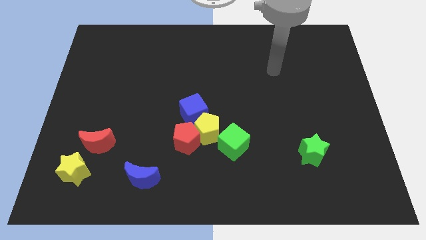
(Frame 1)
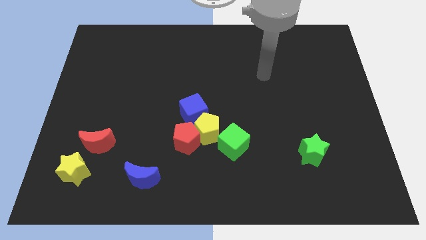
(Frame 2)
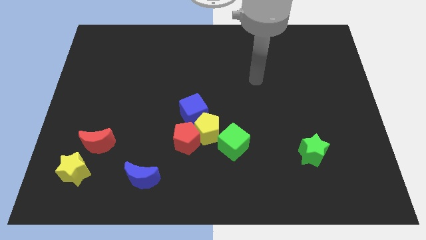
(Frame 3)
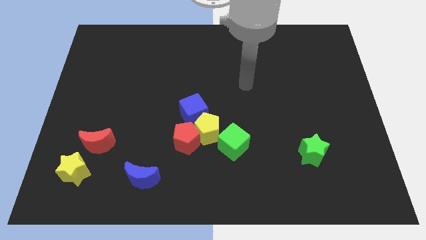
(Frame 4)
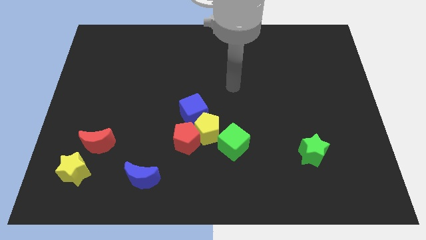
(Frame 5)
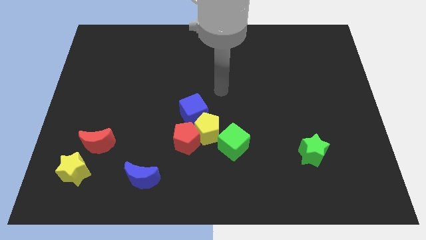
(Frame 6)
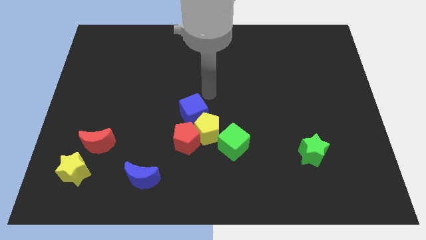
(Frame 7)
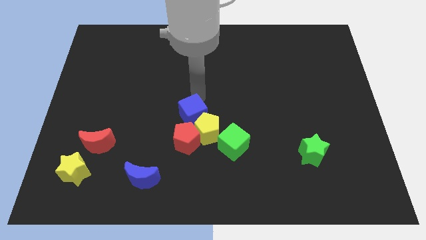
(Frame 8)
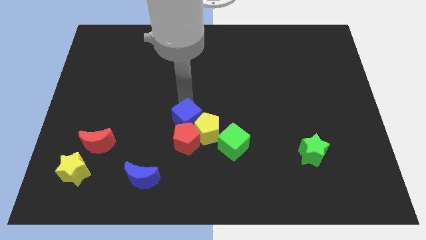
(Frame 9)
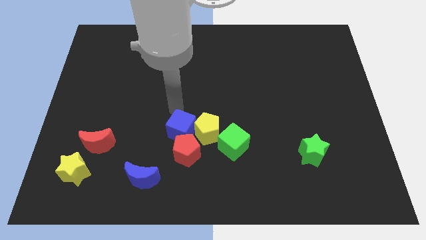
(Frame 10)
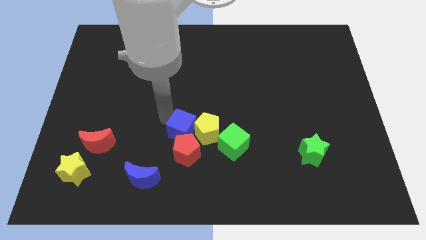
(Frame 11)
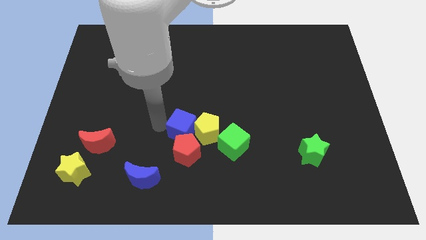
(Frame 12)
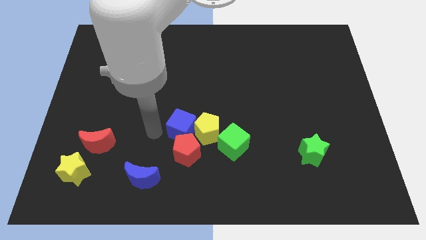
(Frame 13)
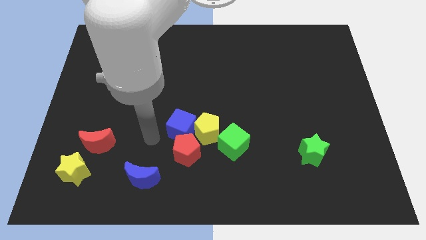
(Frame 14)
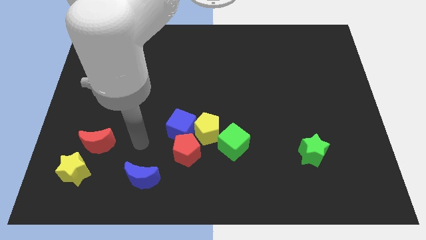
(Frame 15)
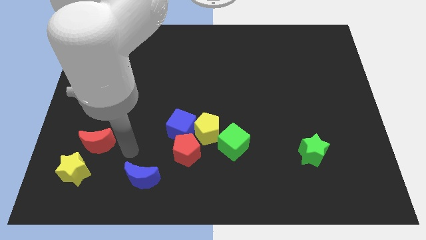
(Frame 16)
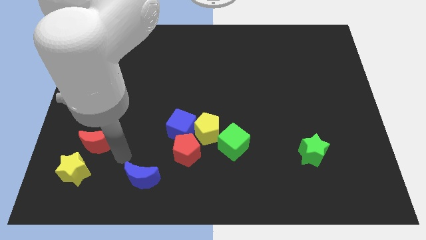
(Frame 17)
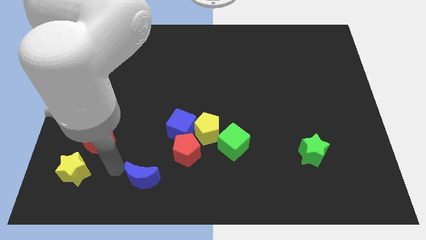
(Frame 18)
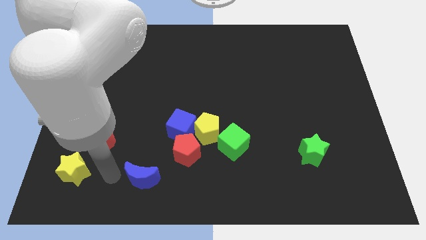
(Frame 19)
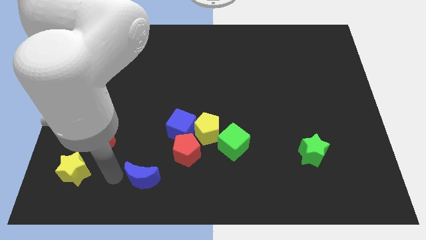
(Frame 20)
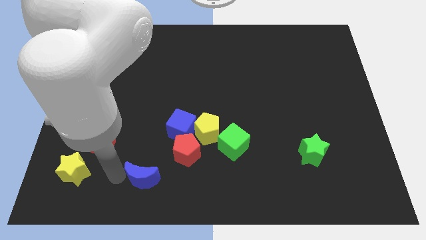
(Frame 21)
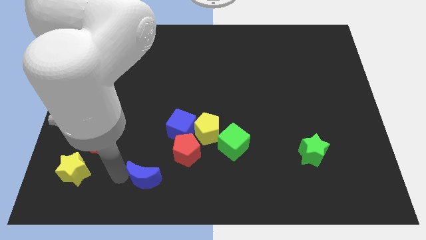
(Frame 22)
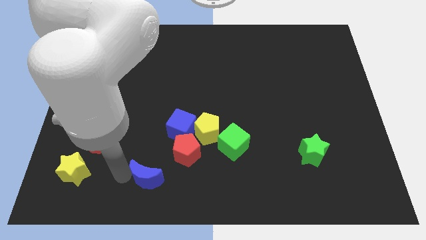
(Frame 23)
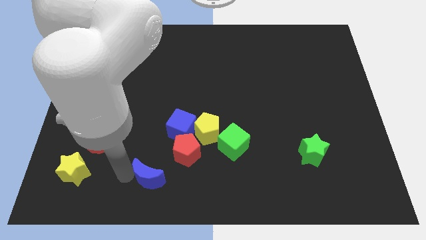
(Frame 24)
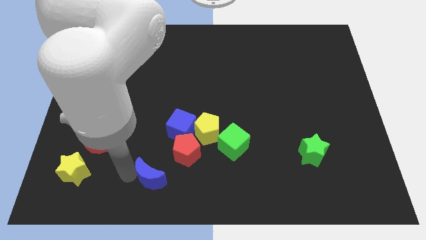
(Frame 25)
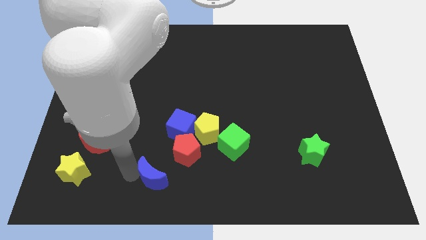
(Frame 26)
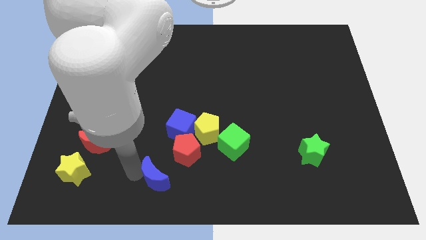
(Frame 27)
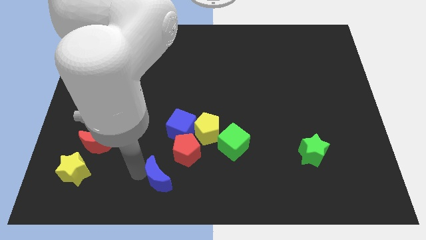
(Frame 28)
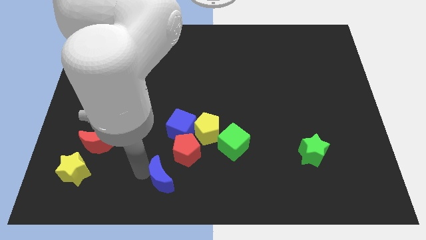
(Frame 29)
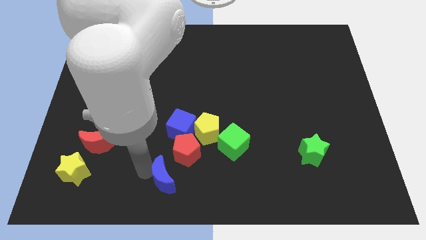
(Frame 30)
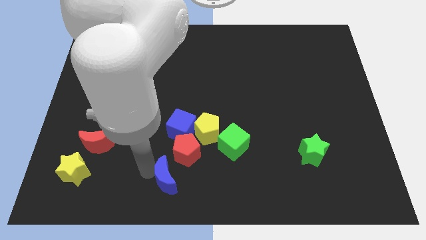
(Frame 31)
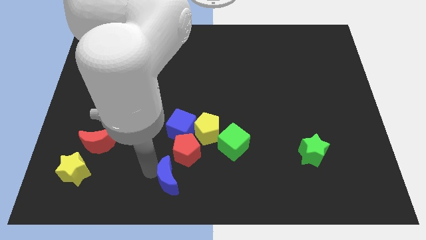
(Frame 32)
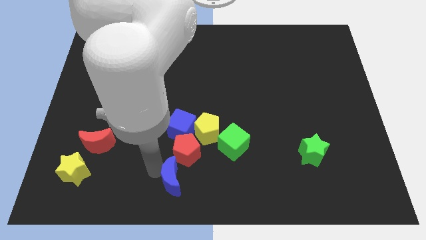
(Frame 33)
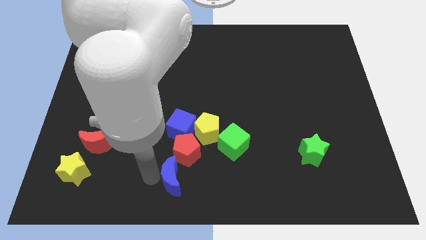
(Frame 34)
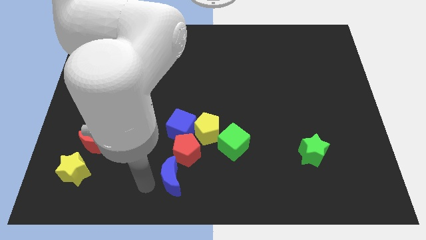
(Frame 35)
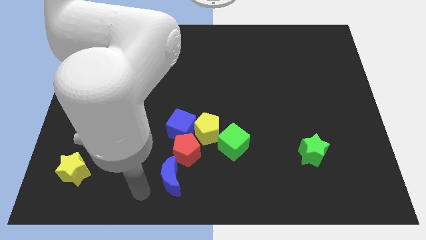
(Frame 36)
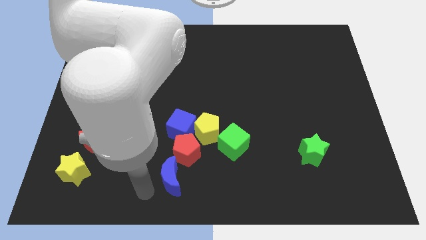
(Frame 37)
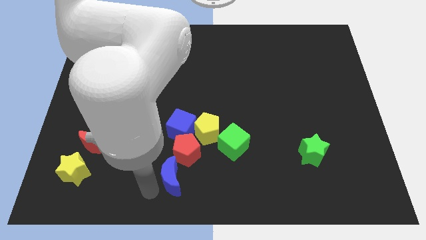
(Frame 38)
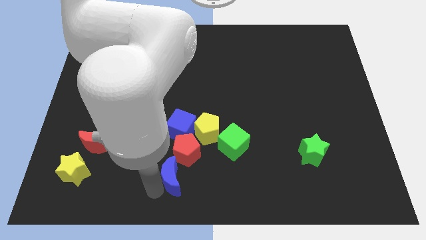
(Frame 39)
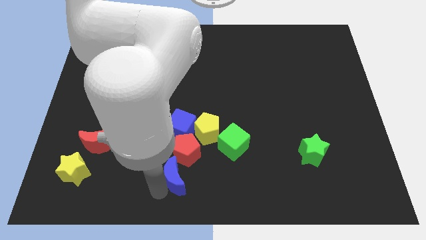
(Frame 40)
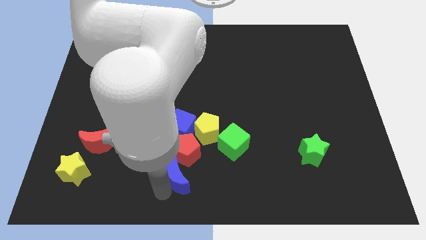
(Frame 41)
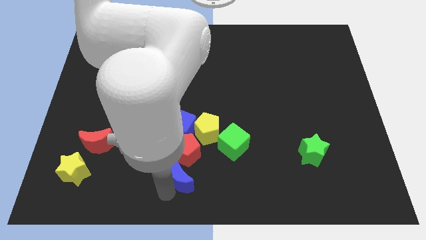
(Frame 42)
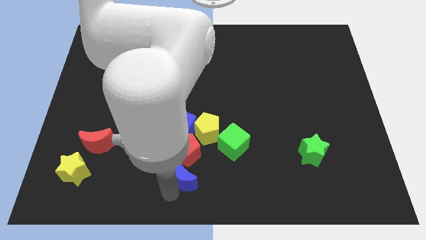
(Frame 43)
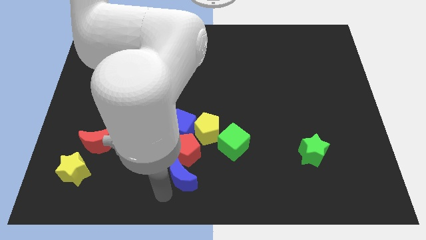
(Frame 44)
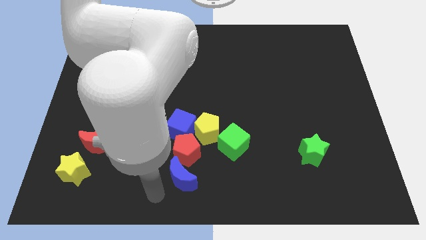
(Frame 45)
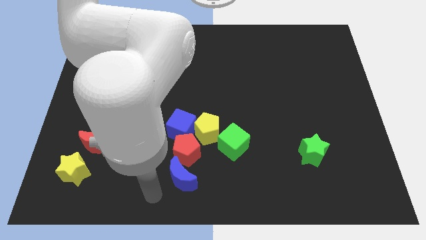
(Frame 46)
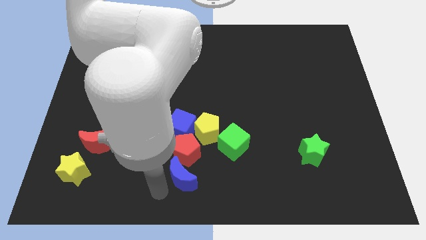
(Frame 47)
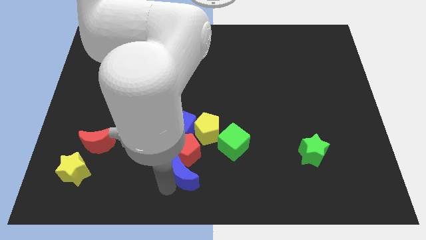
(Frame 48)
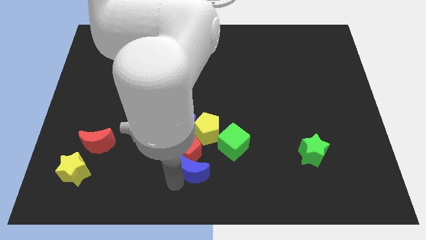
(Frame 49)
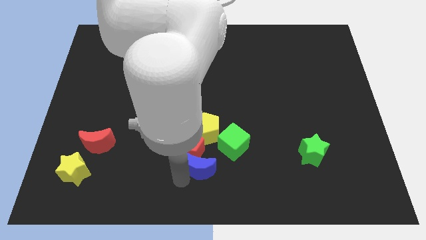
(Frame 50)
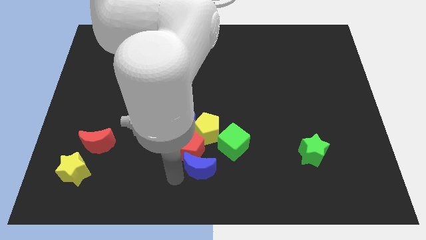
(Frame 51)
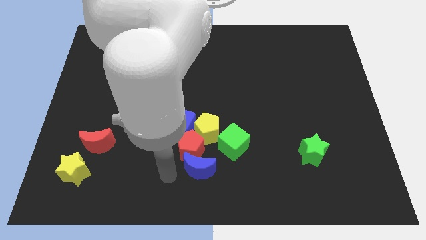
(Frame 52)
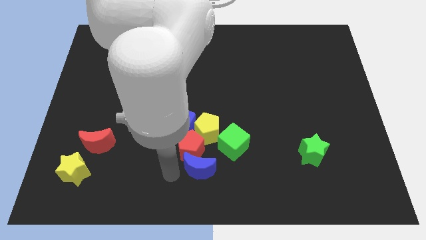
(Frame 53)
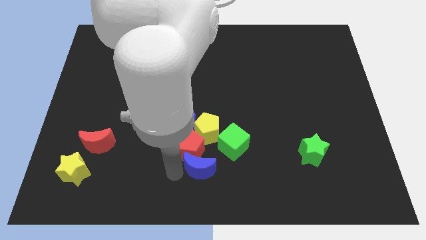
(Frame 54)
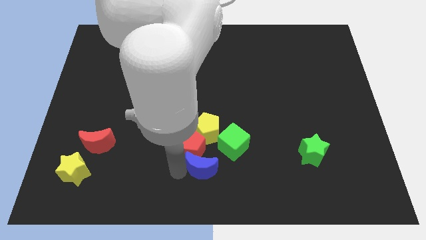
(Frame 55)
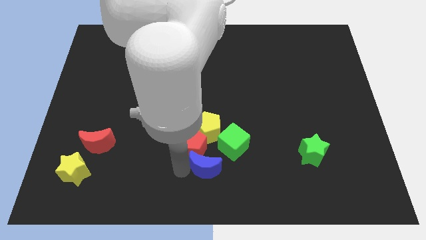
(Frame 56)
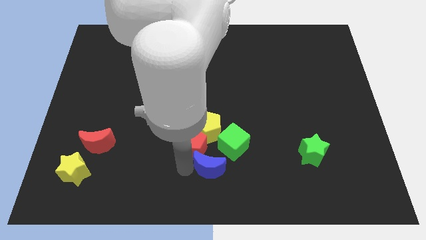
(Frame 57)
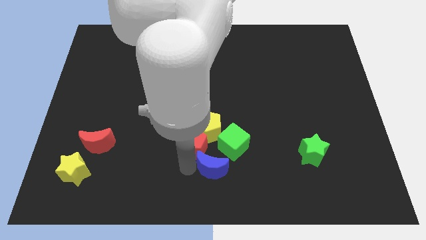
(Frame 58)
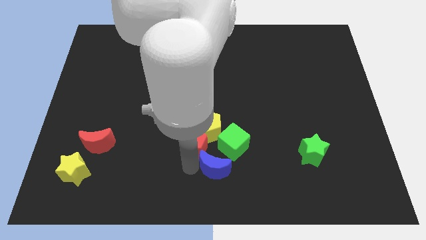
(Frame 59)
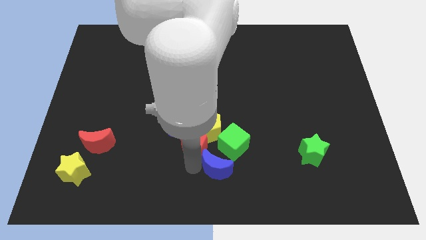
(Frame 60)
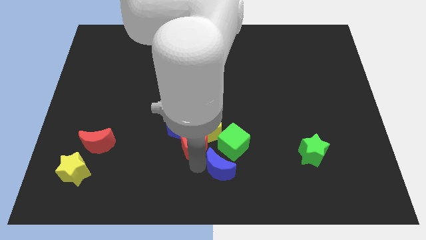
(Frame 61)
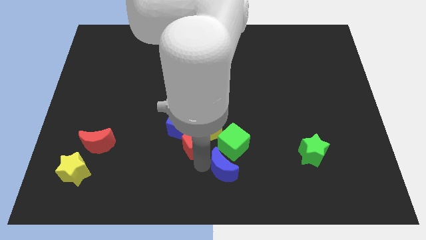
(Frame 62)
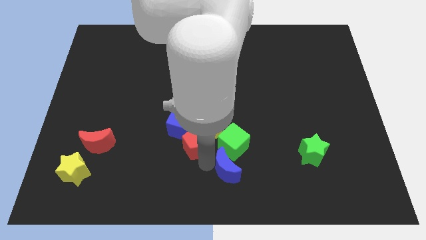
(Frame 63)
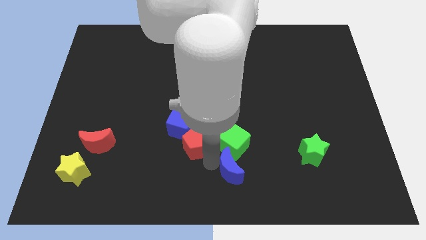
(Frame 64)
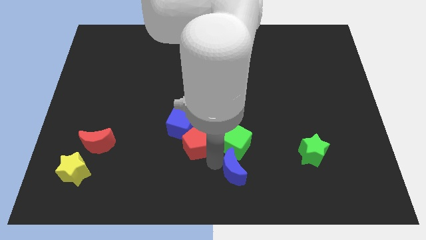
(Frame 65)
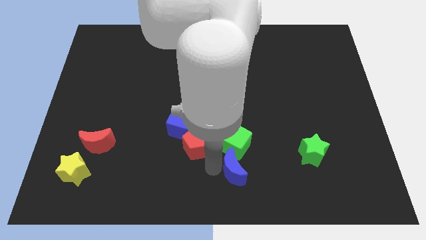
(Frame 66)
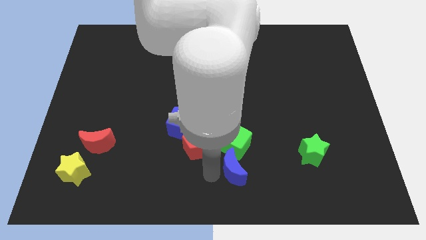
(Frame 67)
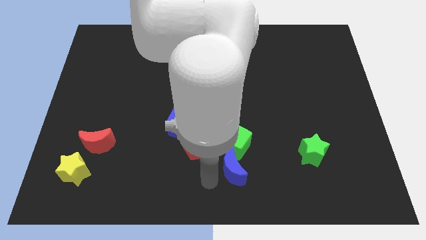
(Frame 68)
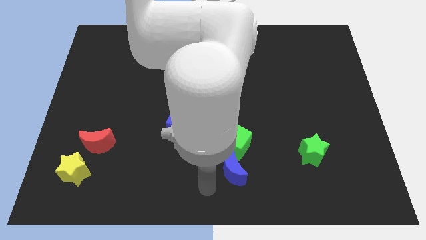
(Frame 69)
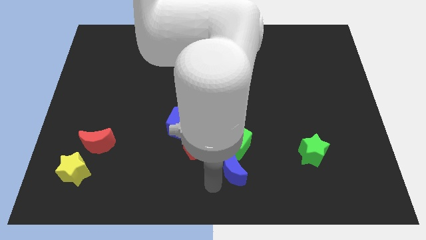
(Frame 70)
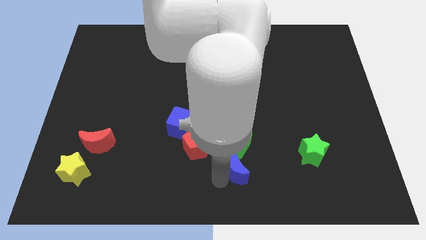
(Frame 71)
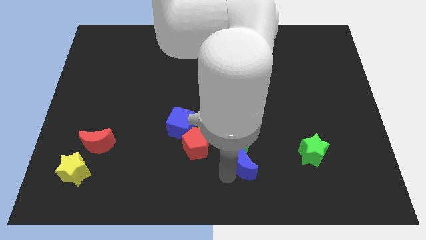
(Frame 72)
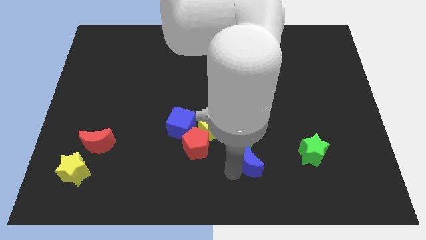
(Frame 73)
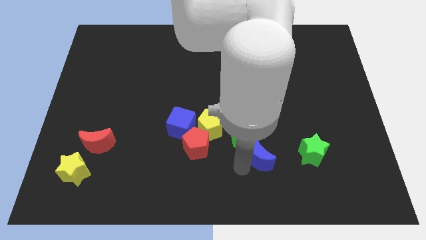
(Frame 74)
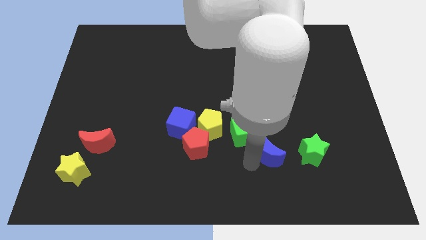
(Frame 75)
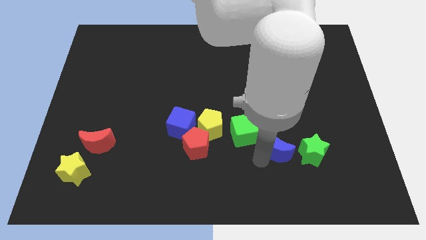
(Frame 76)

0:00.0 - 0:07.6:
push the blue moon right of the green cube

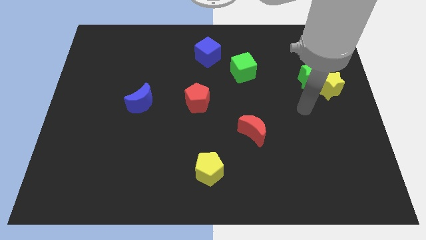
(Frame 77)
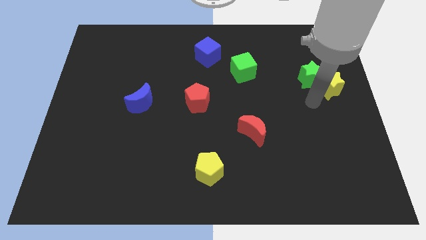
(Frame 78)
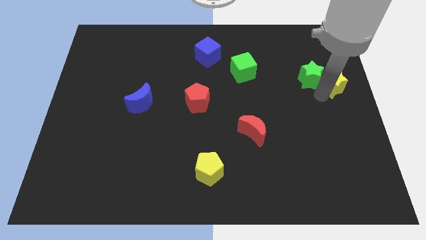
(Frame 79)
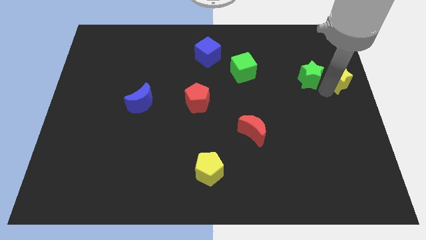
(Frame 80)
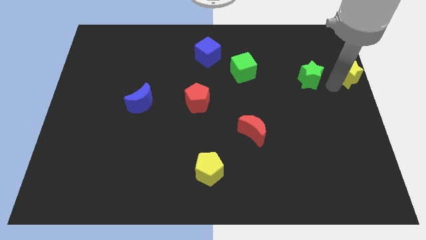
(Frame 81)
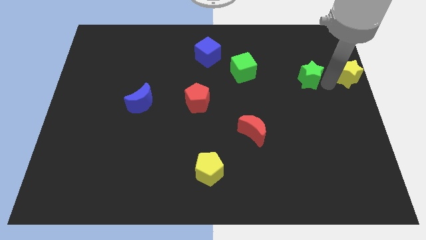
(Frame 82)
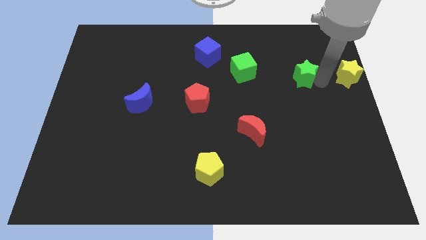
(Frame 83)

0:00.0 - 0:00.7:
slide the green star right of the green cube
